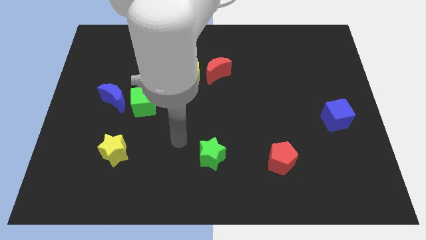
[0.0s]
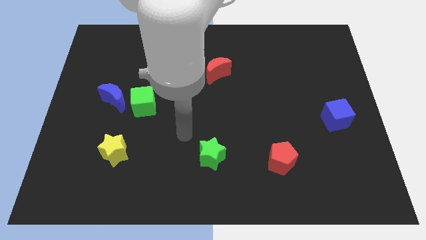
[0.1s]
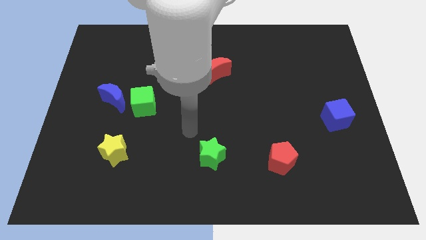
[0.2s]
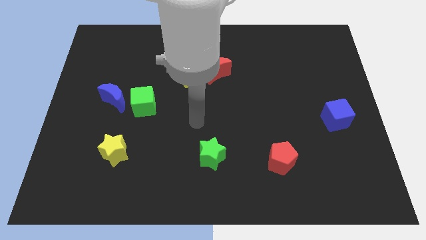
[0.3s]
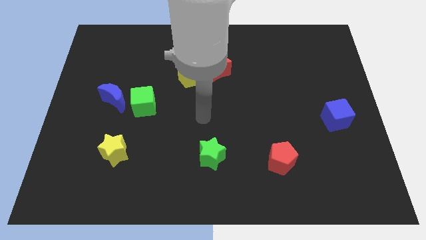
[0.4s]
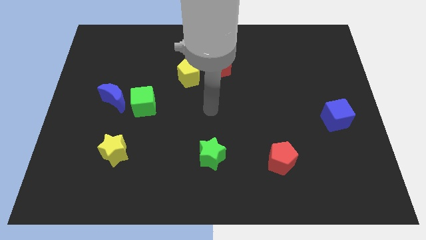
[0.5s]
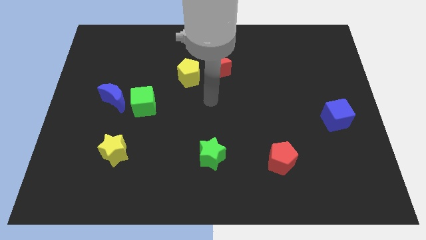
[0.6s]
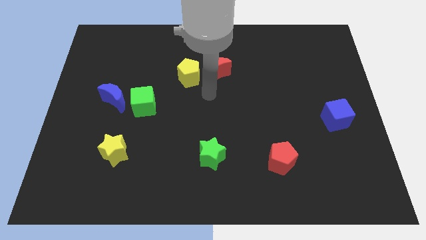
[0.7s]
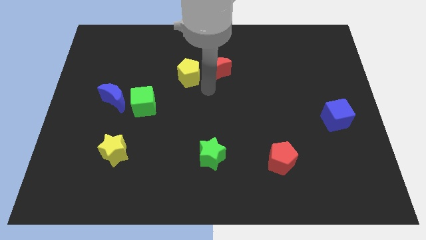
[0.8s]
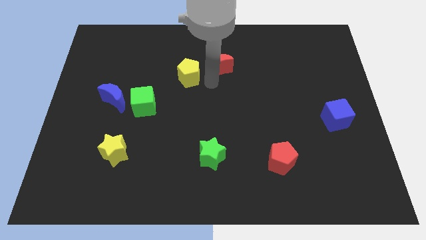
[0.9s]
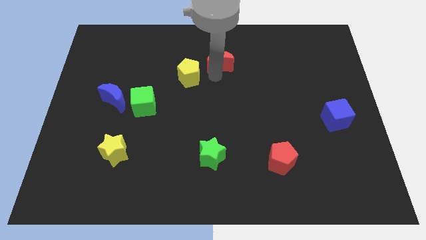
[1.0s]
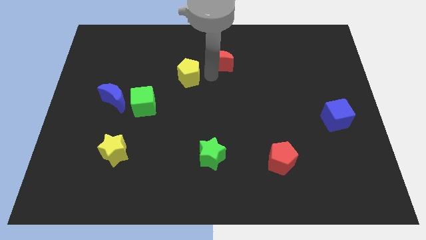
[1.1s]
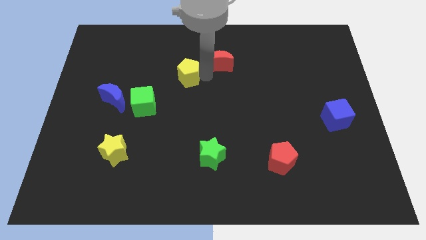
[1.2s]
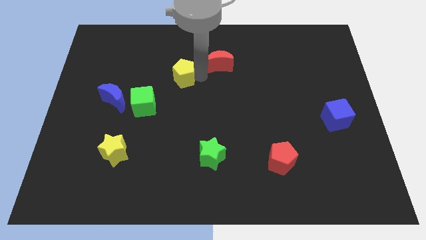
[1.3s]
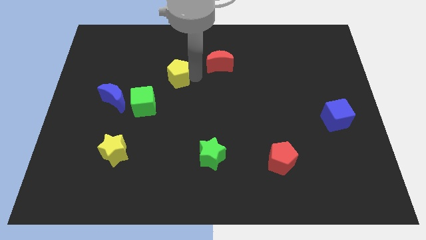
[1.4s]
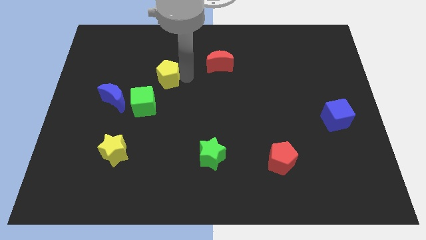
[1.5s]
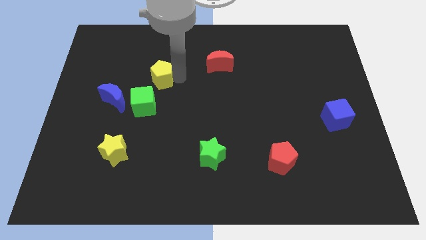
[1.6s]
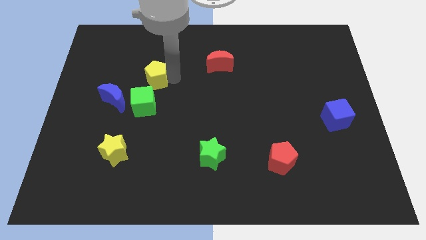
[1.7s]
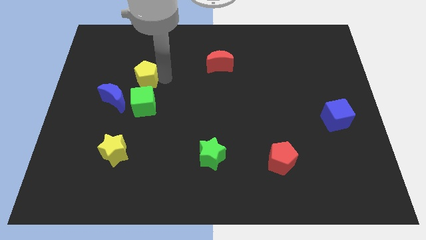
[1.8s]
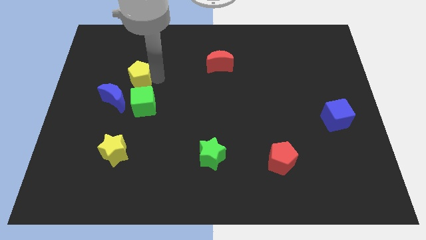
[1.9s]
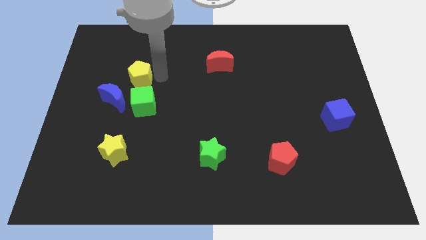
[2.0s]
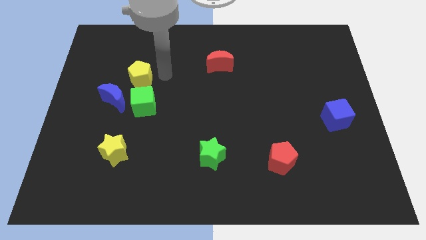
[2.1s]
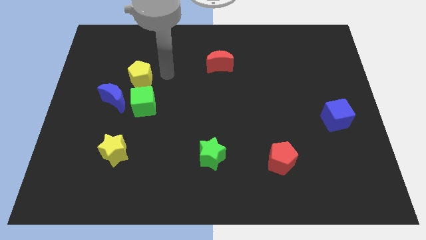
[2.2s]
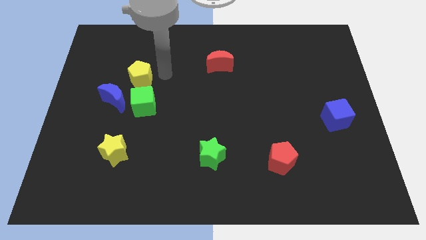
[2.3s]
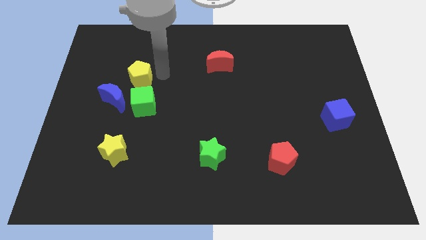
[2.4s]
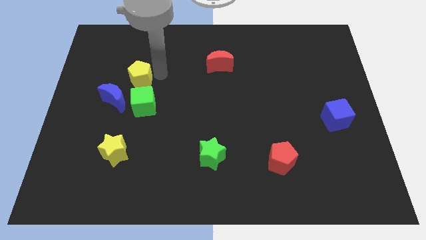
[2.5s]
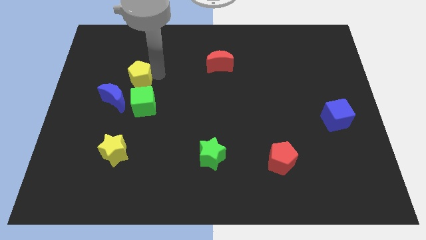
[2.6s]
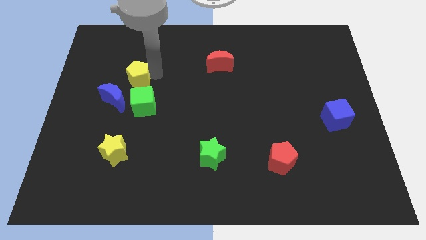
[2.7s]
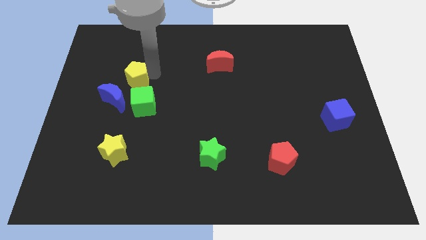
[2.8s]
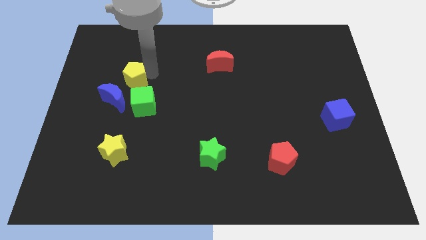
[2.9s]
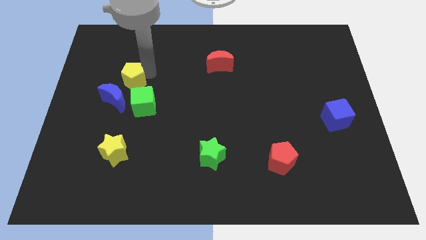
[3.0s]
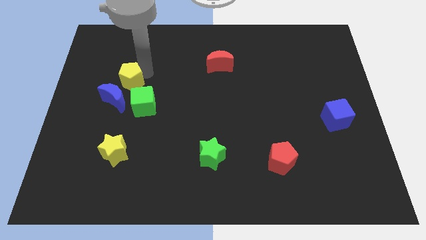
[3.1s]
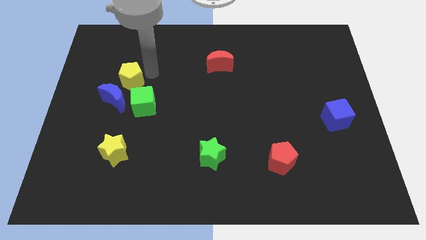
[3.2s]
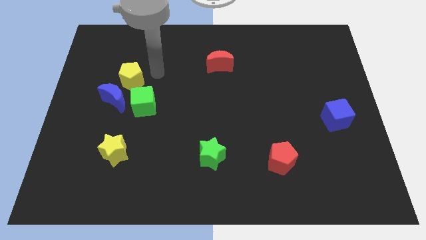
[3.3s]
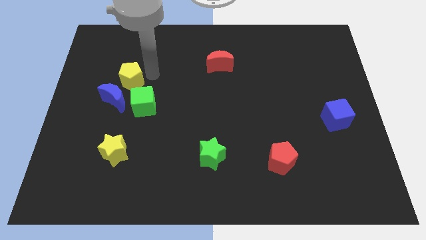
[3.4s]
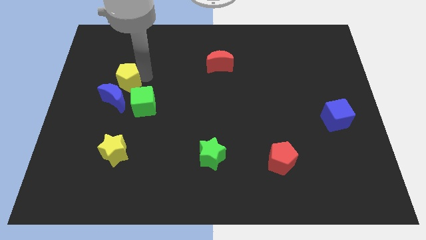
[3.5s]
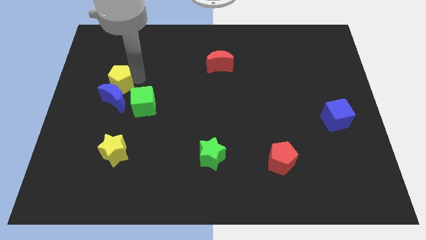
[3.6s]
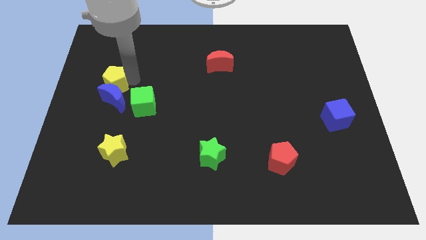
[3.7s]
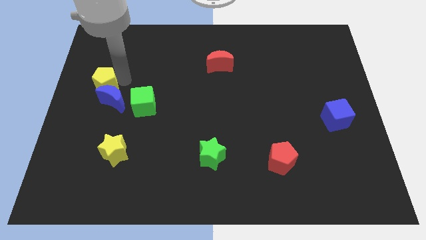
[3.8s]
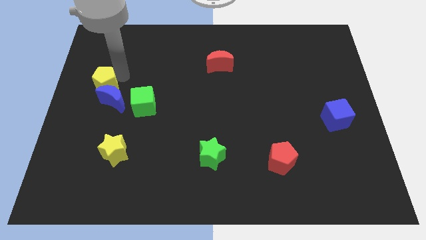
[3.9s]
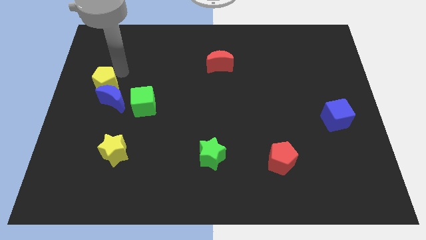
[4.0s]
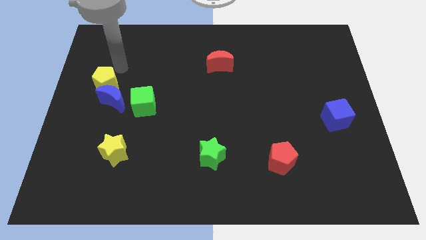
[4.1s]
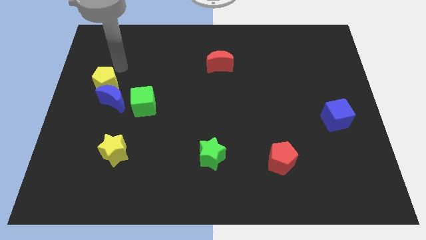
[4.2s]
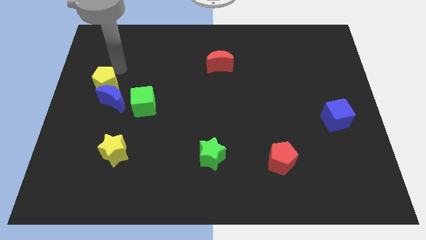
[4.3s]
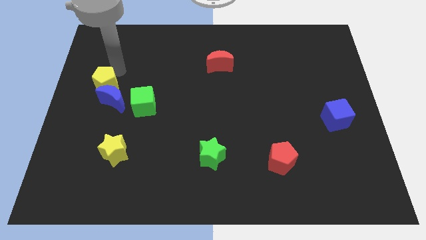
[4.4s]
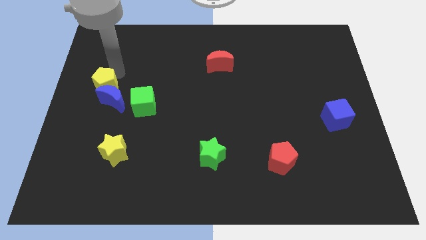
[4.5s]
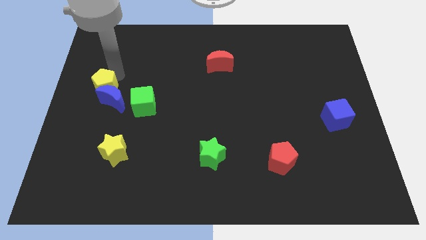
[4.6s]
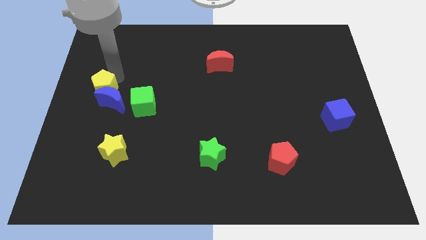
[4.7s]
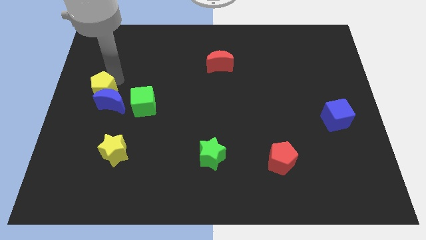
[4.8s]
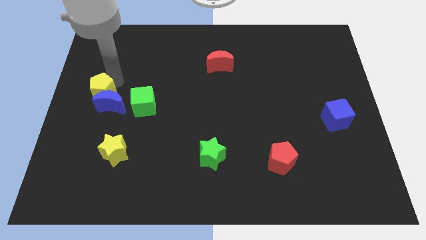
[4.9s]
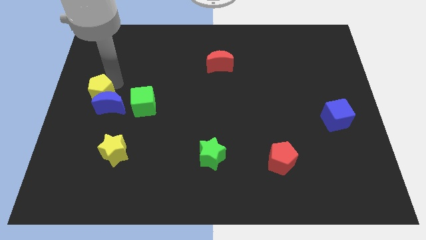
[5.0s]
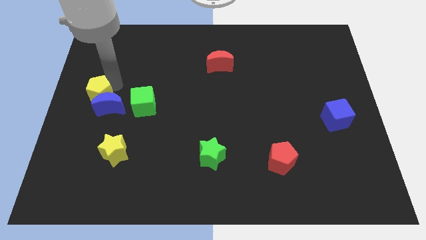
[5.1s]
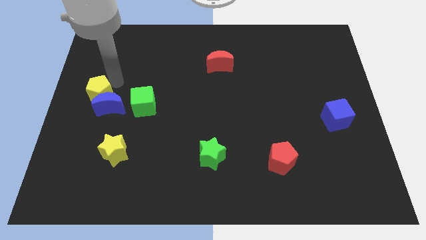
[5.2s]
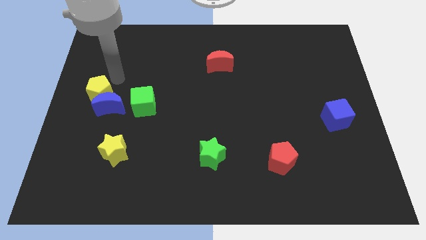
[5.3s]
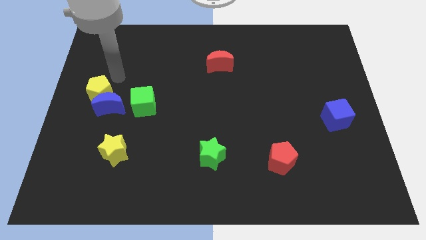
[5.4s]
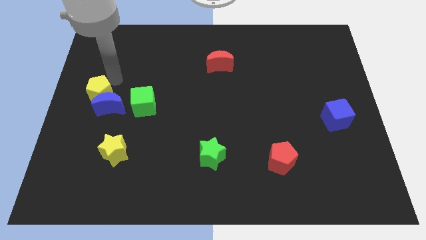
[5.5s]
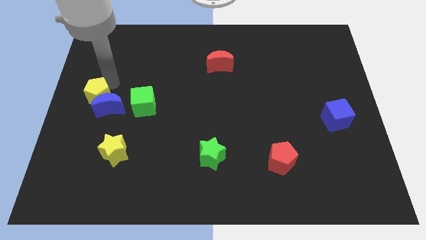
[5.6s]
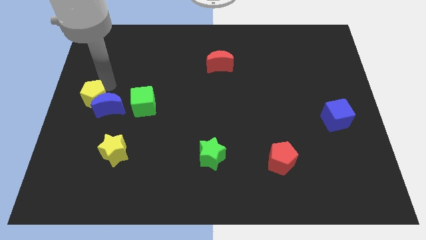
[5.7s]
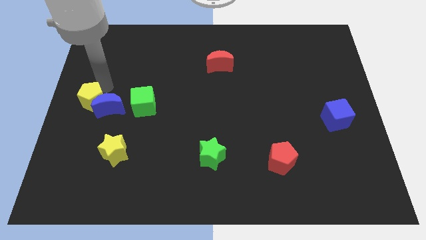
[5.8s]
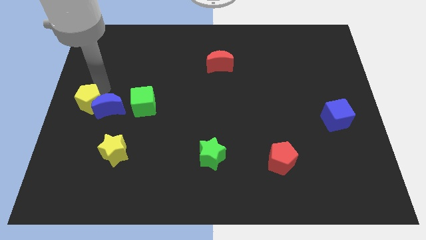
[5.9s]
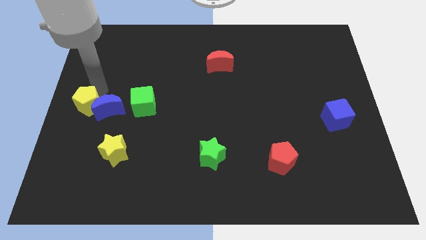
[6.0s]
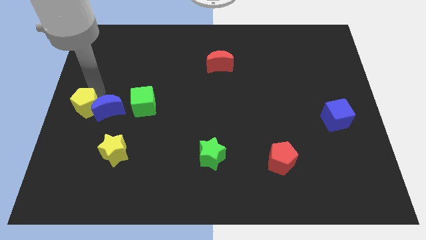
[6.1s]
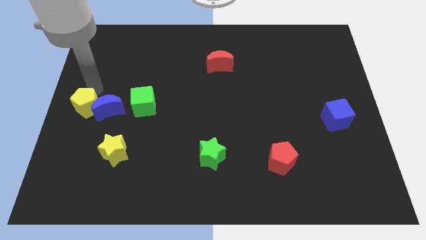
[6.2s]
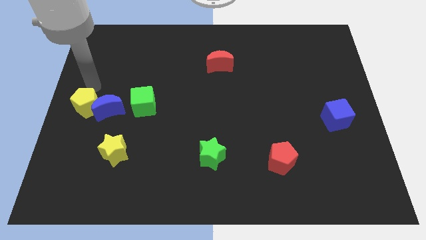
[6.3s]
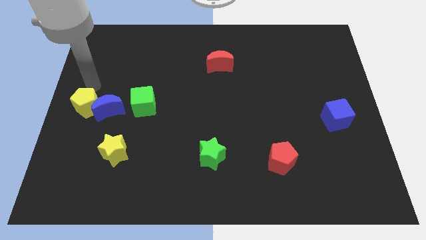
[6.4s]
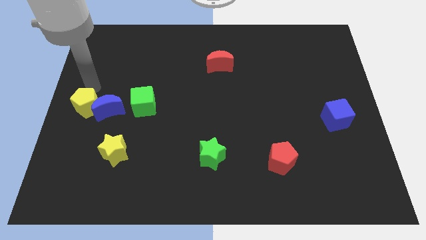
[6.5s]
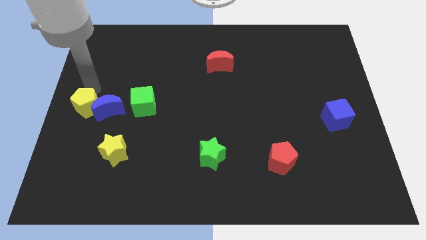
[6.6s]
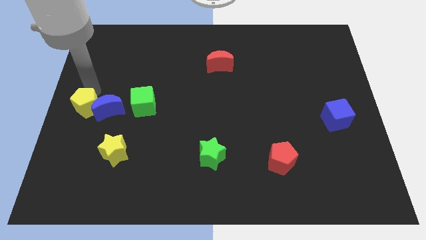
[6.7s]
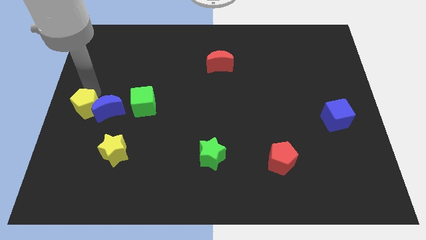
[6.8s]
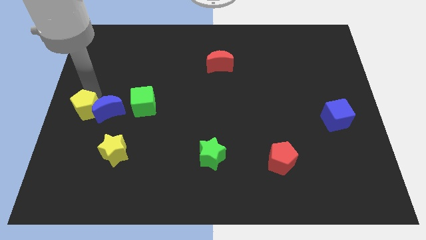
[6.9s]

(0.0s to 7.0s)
push the yellow pentagon diagonally downwards and to the left

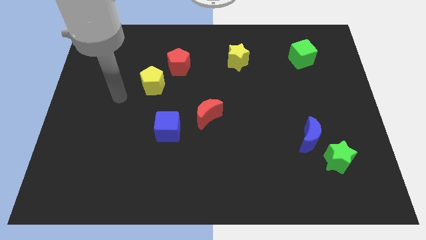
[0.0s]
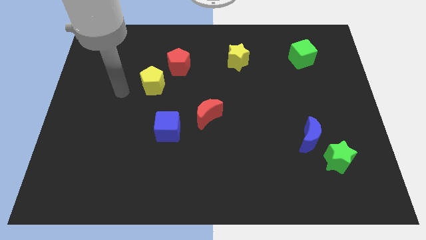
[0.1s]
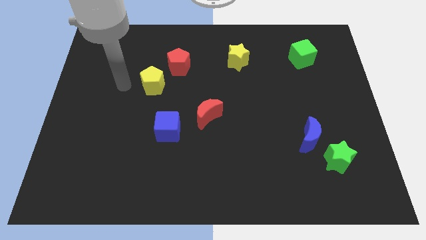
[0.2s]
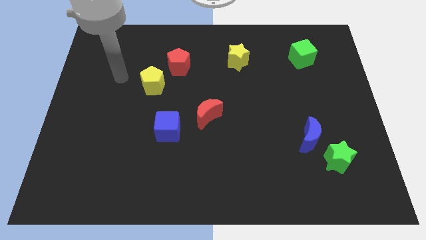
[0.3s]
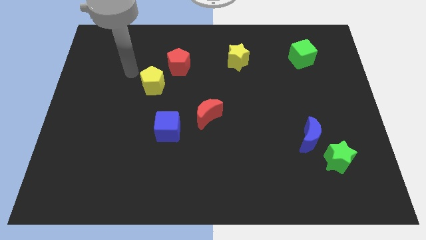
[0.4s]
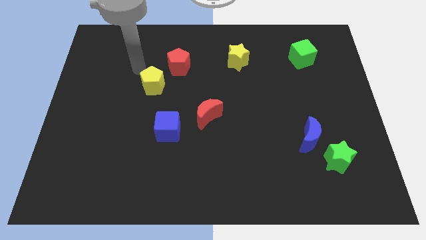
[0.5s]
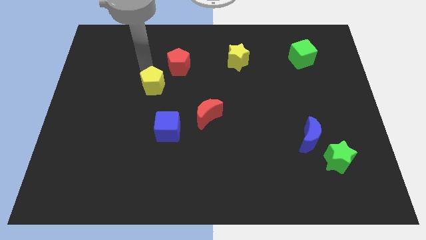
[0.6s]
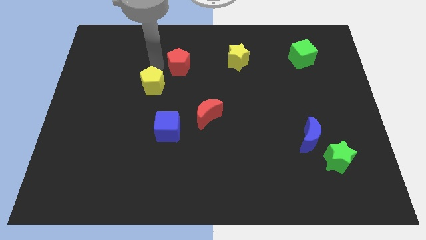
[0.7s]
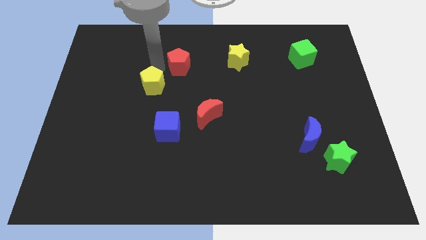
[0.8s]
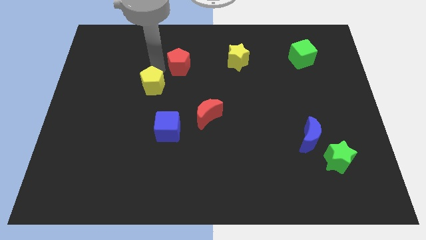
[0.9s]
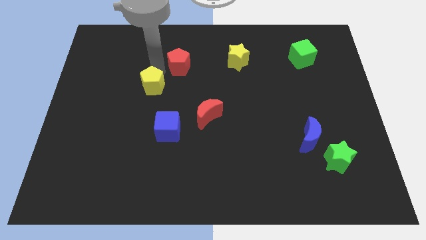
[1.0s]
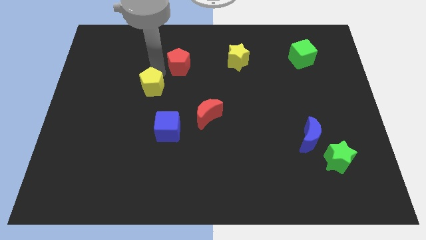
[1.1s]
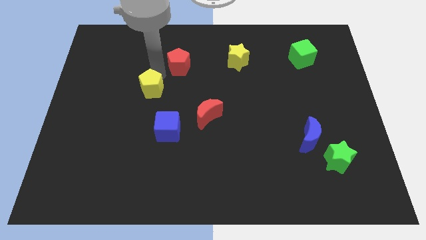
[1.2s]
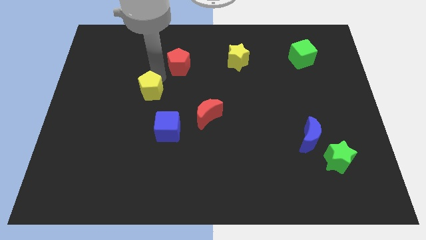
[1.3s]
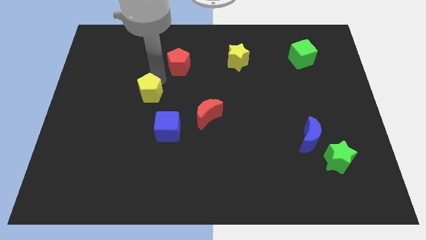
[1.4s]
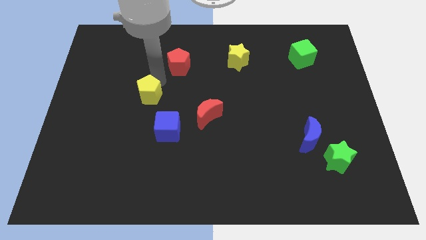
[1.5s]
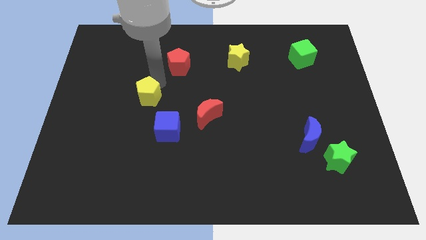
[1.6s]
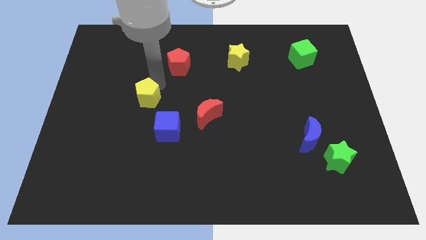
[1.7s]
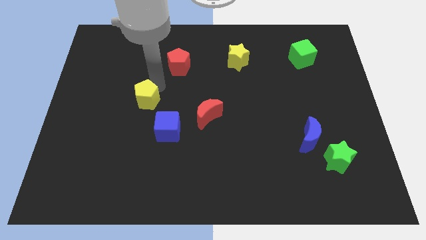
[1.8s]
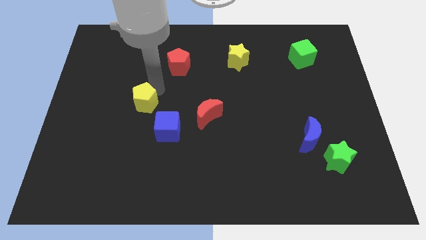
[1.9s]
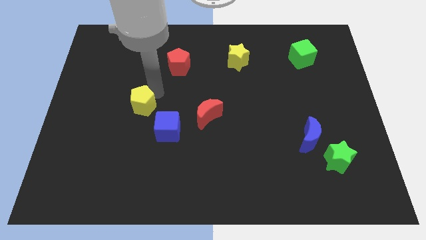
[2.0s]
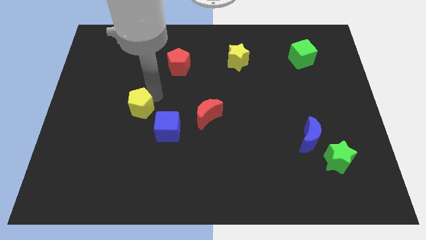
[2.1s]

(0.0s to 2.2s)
slide the yellow pentagon a little down
